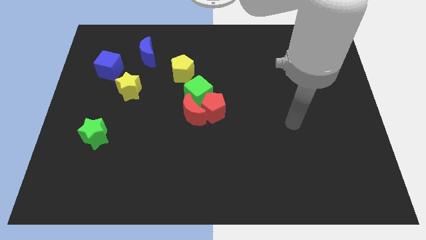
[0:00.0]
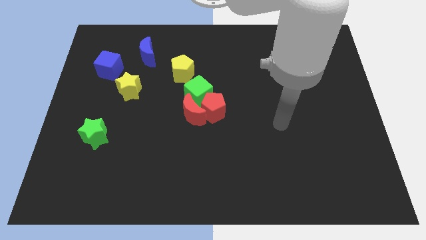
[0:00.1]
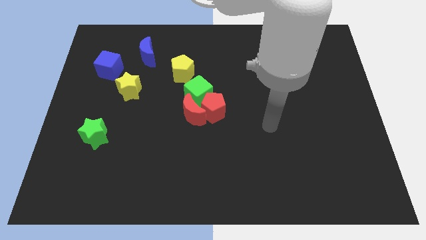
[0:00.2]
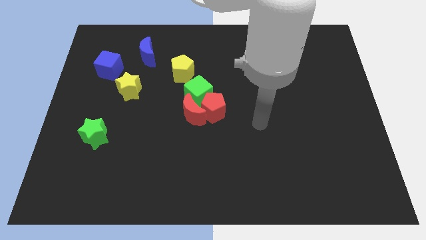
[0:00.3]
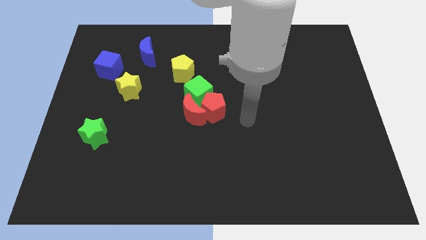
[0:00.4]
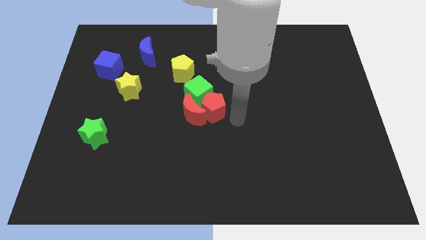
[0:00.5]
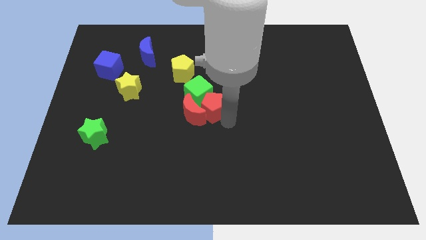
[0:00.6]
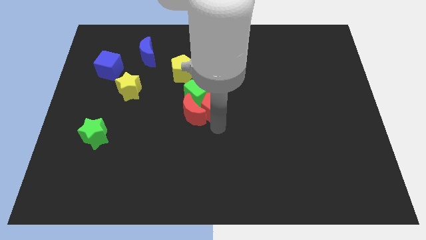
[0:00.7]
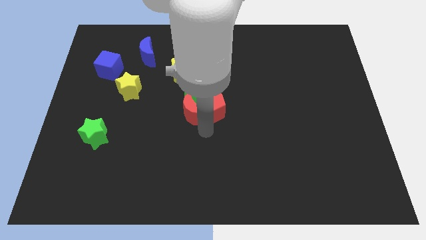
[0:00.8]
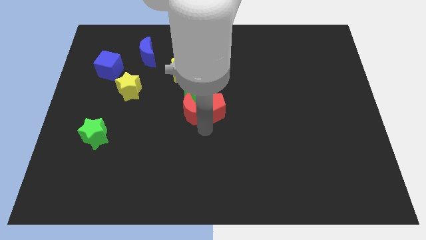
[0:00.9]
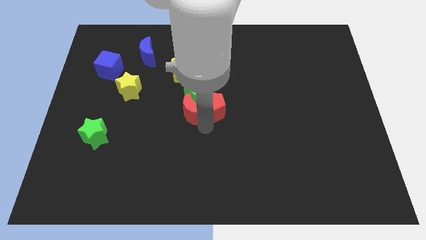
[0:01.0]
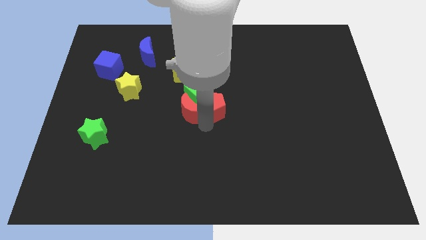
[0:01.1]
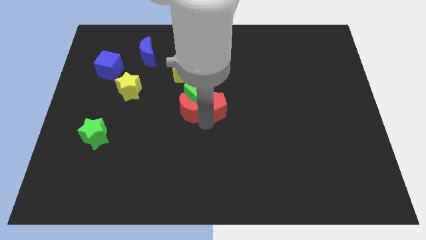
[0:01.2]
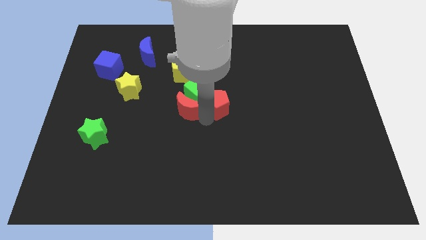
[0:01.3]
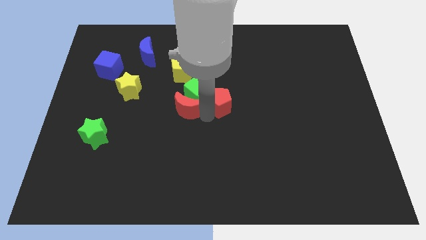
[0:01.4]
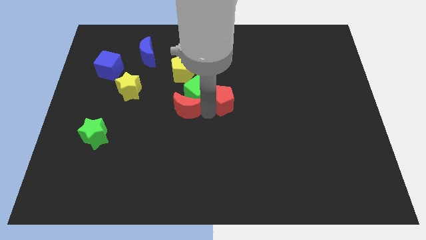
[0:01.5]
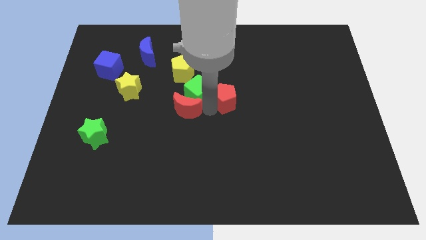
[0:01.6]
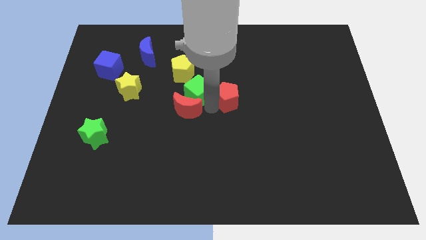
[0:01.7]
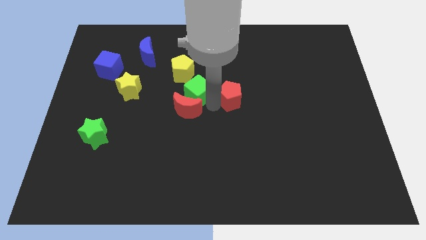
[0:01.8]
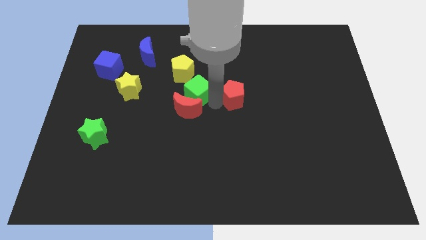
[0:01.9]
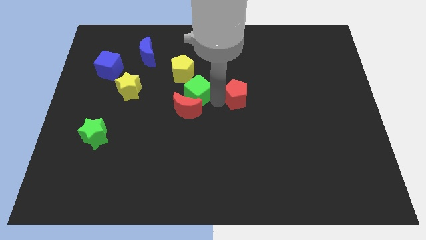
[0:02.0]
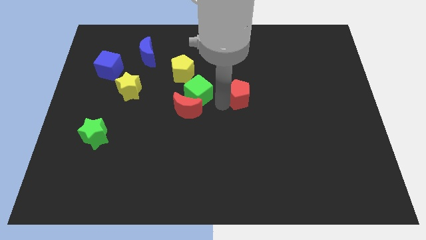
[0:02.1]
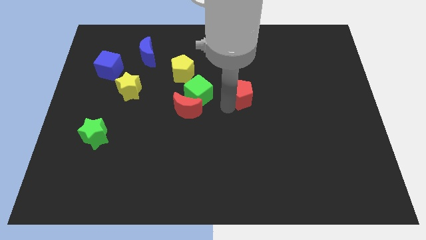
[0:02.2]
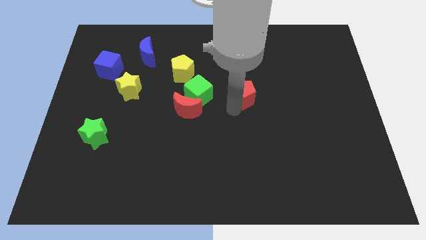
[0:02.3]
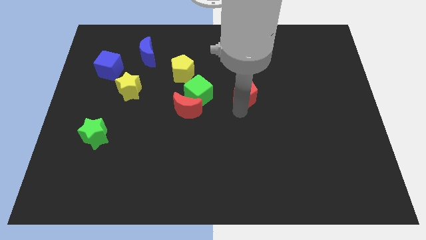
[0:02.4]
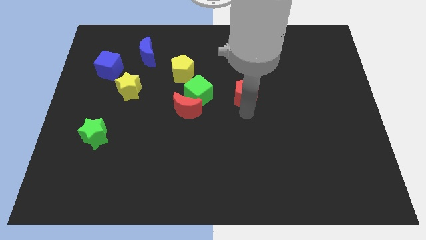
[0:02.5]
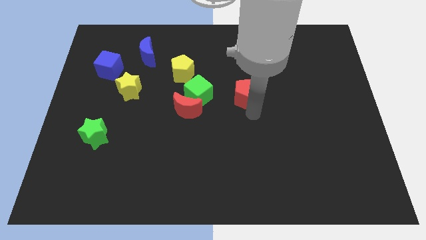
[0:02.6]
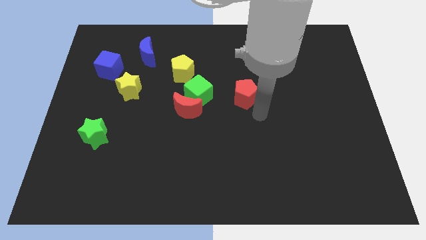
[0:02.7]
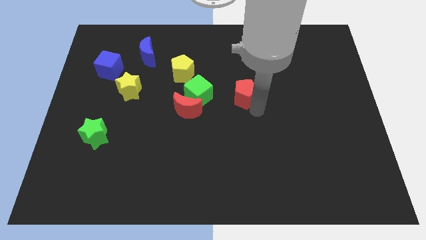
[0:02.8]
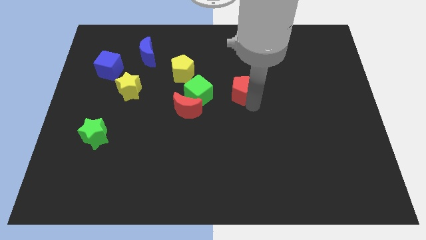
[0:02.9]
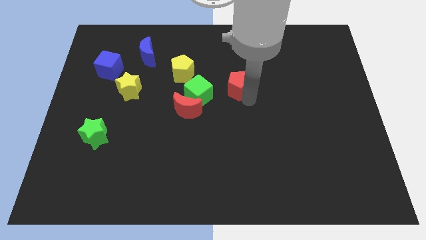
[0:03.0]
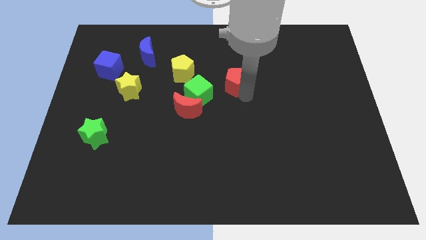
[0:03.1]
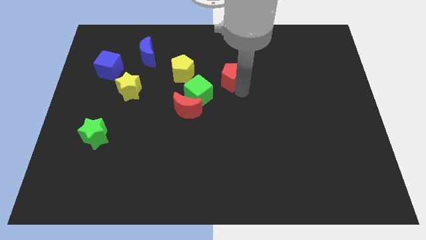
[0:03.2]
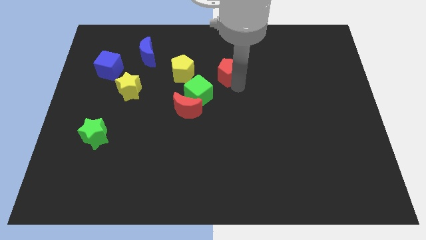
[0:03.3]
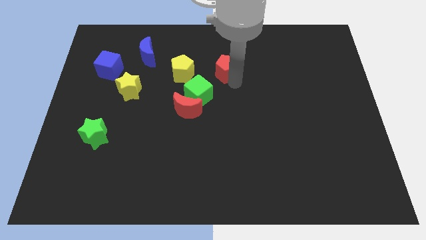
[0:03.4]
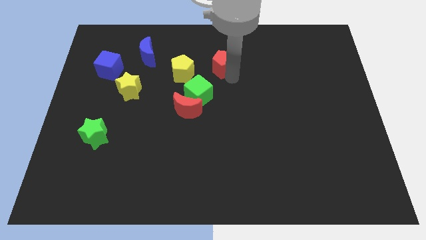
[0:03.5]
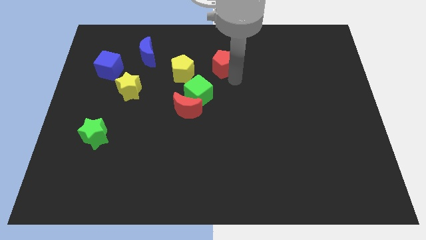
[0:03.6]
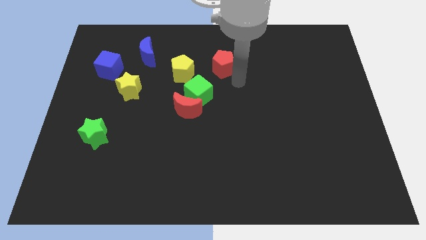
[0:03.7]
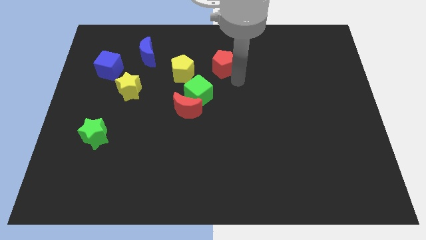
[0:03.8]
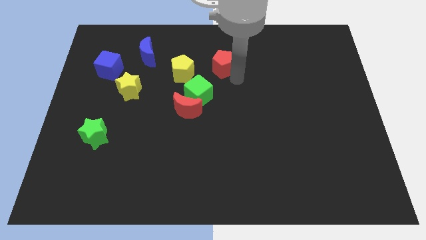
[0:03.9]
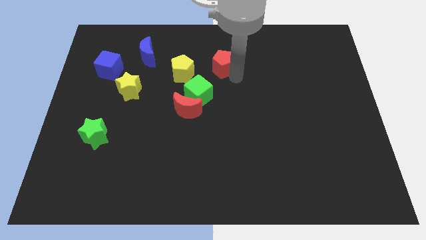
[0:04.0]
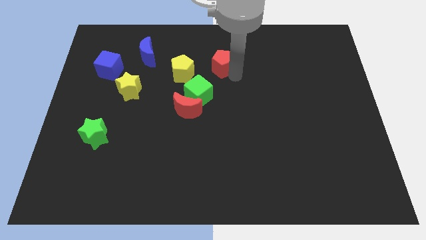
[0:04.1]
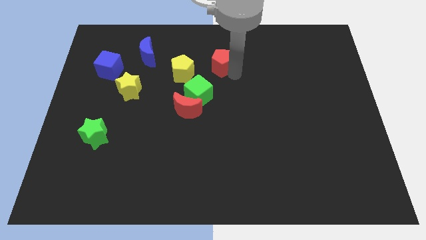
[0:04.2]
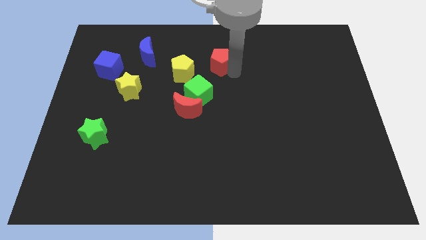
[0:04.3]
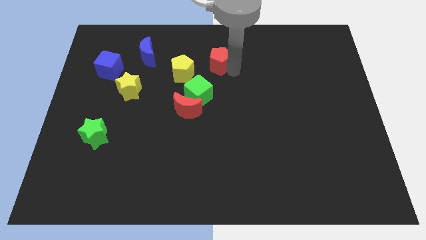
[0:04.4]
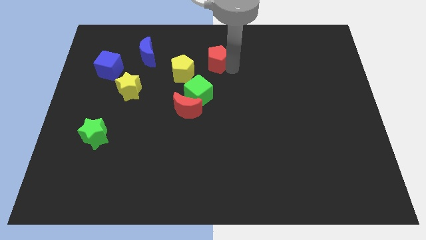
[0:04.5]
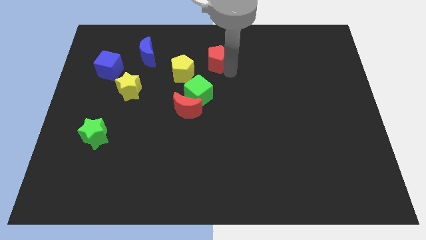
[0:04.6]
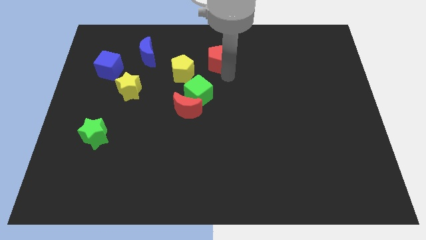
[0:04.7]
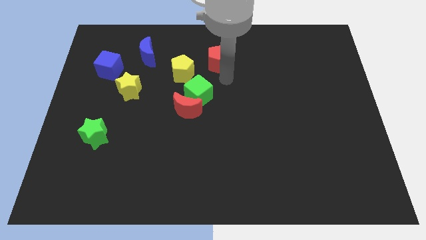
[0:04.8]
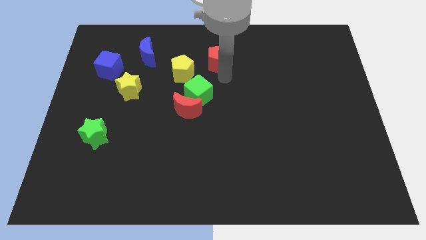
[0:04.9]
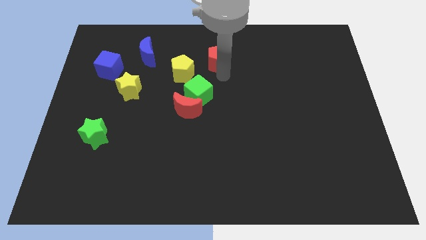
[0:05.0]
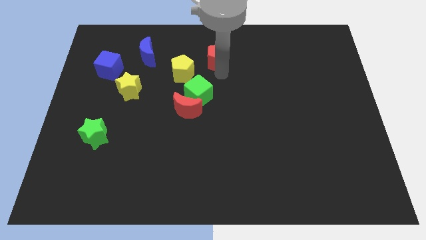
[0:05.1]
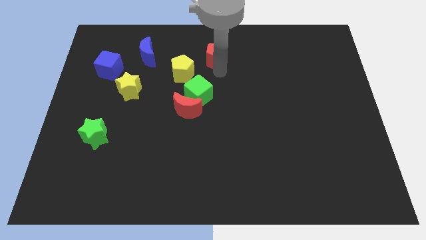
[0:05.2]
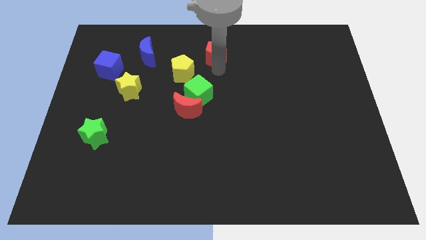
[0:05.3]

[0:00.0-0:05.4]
move the red pentagon to the towards your base

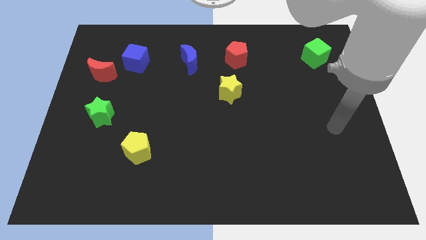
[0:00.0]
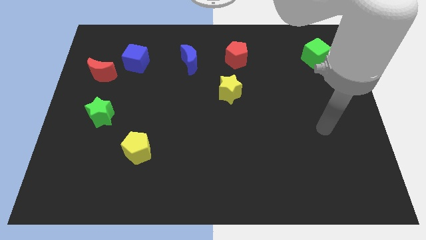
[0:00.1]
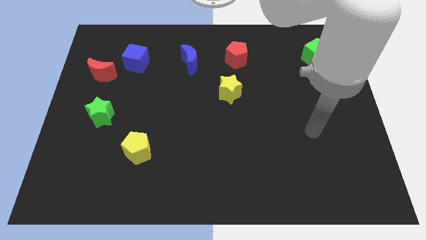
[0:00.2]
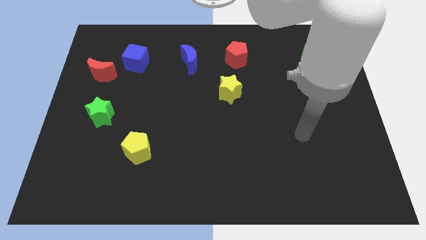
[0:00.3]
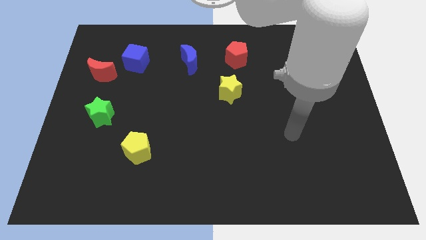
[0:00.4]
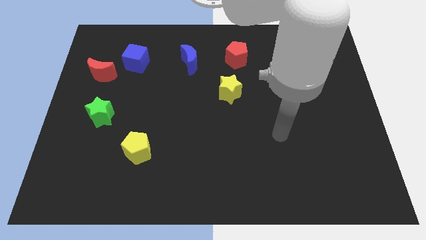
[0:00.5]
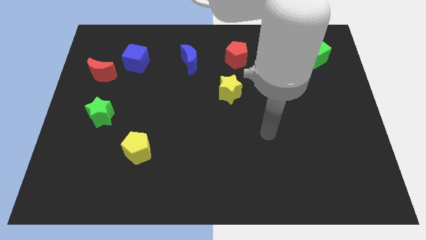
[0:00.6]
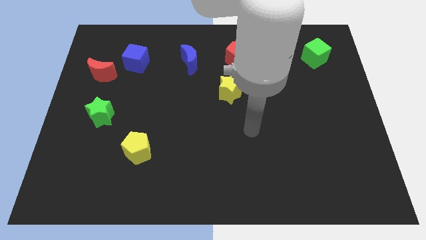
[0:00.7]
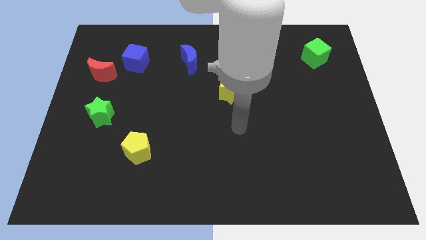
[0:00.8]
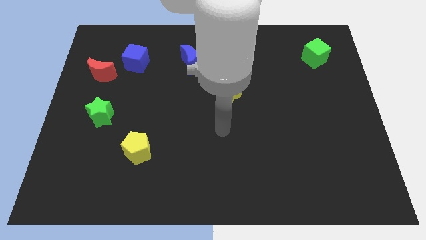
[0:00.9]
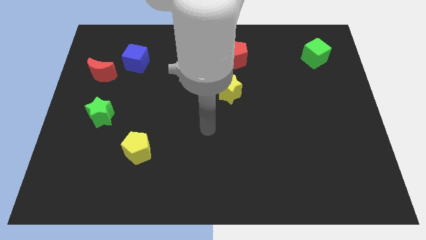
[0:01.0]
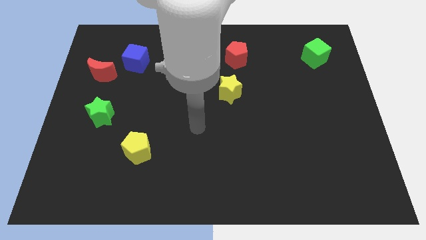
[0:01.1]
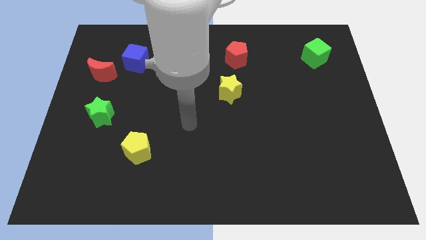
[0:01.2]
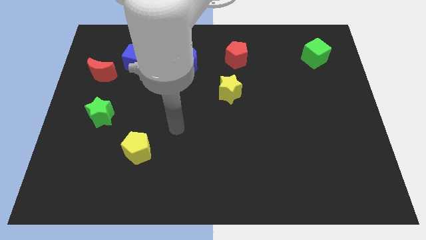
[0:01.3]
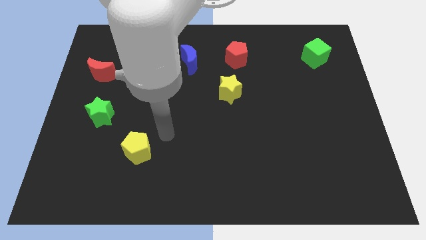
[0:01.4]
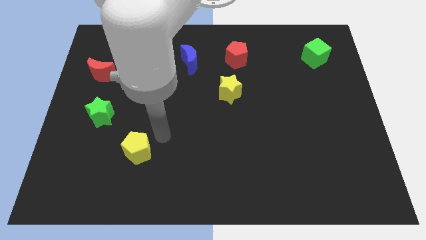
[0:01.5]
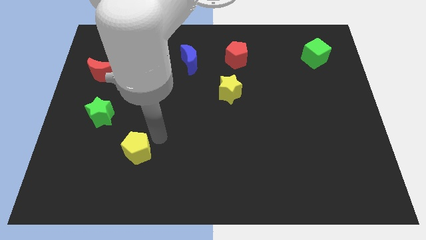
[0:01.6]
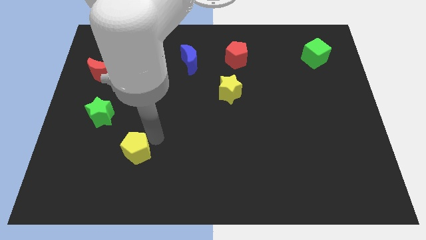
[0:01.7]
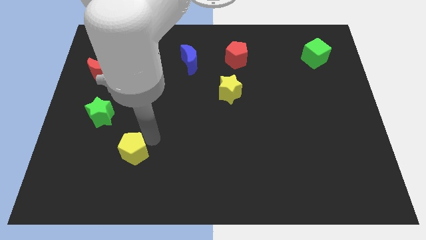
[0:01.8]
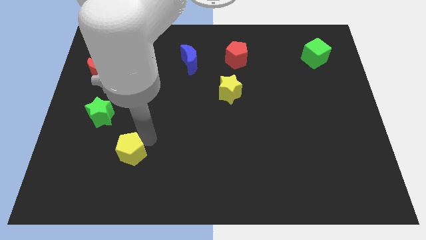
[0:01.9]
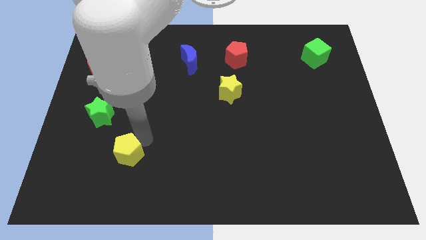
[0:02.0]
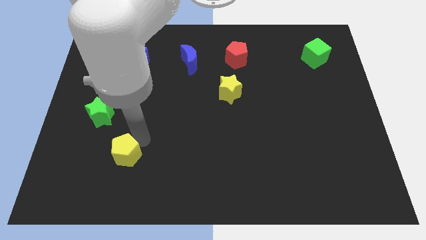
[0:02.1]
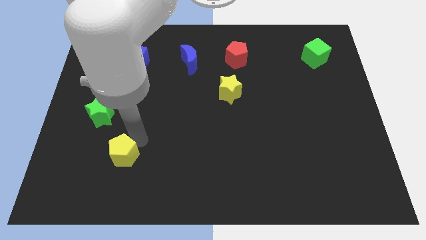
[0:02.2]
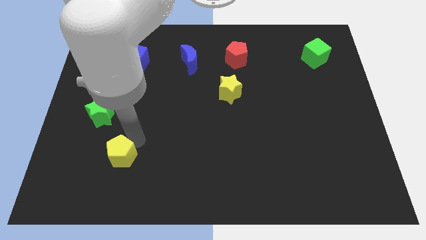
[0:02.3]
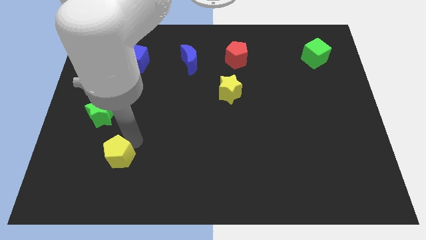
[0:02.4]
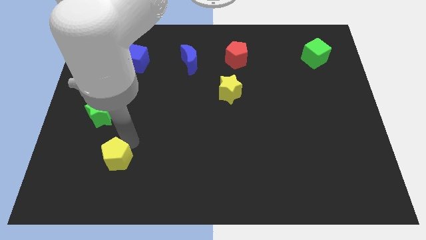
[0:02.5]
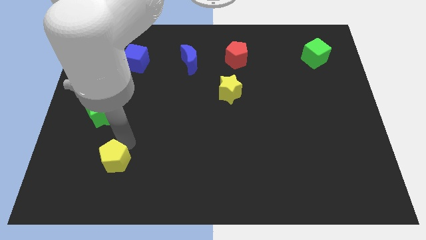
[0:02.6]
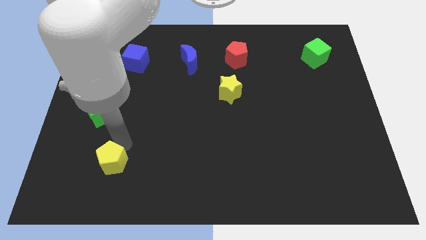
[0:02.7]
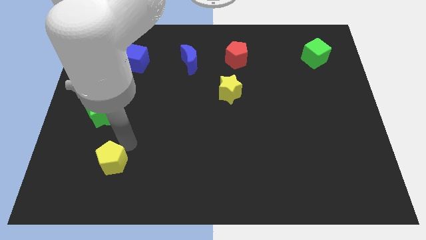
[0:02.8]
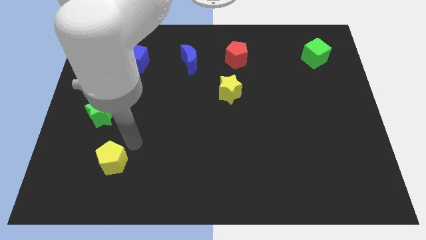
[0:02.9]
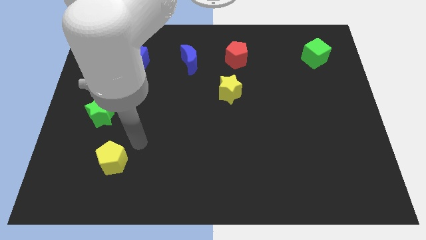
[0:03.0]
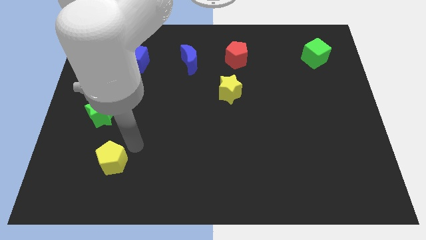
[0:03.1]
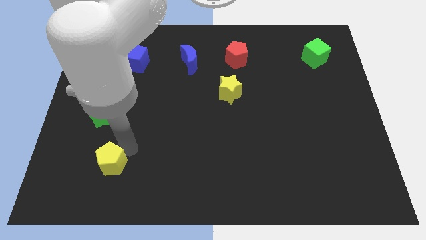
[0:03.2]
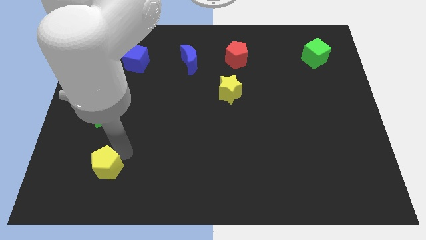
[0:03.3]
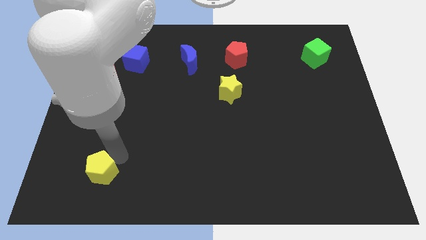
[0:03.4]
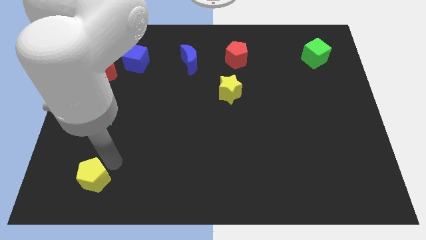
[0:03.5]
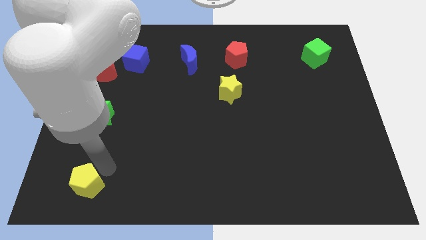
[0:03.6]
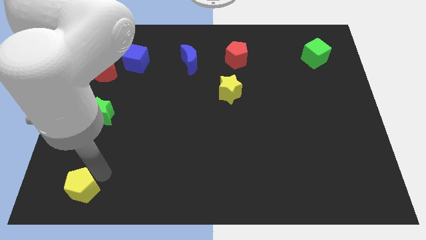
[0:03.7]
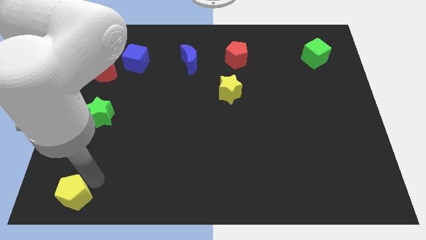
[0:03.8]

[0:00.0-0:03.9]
push the yellow pentagon to the bottom left corner
